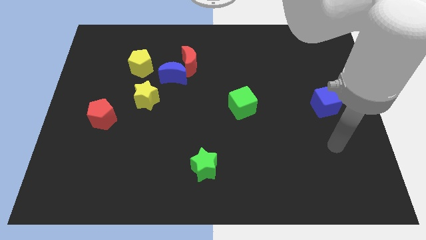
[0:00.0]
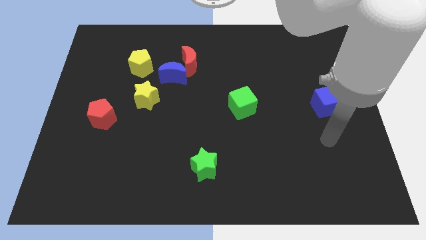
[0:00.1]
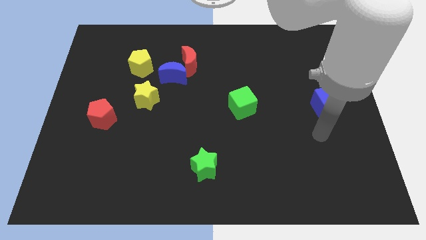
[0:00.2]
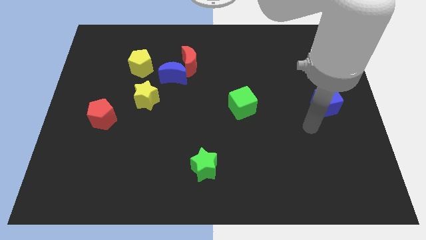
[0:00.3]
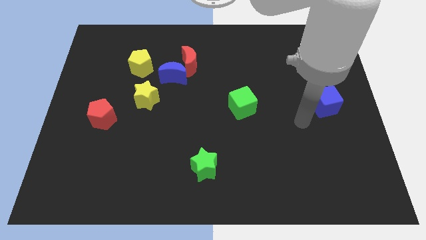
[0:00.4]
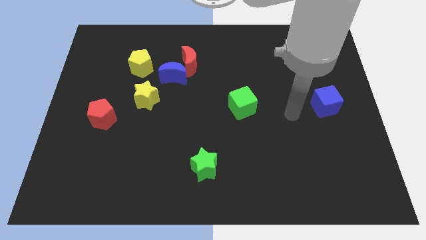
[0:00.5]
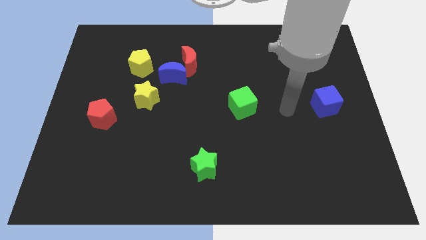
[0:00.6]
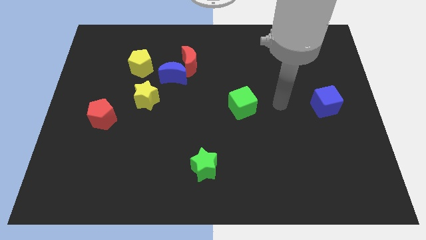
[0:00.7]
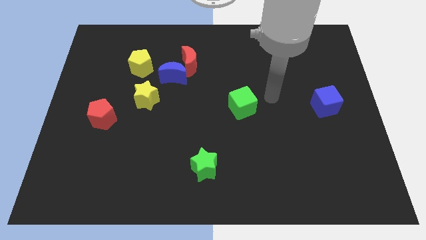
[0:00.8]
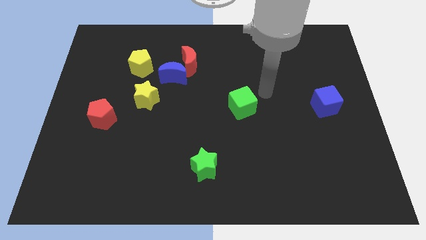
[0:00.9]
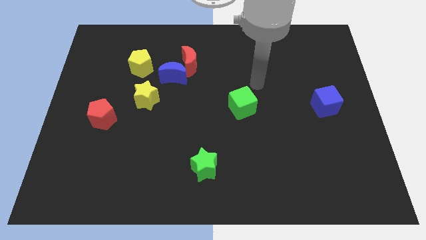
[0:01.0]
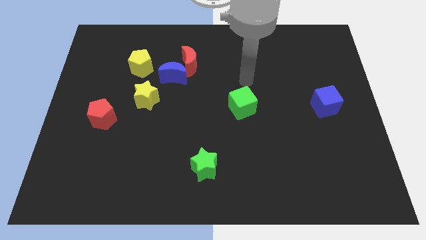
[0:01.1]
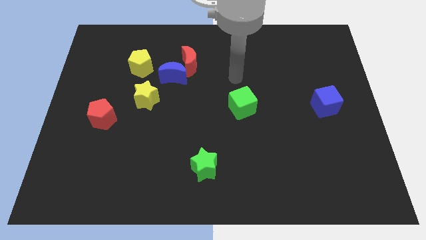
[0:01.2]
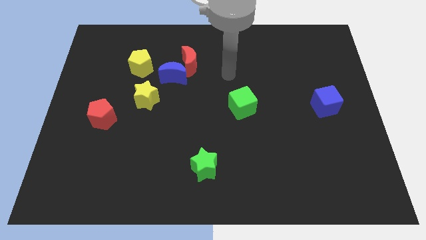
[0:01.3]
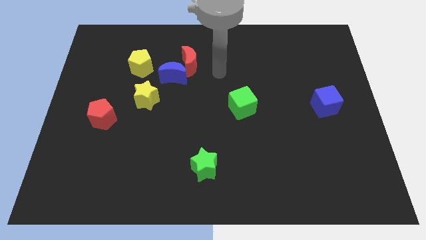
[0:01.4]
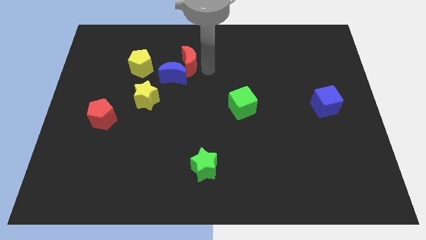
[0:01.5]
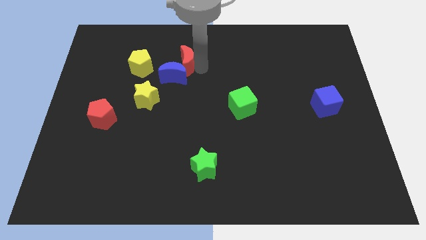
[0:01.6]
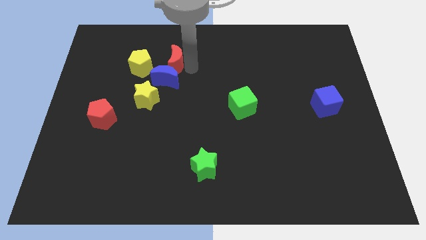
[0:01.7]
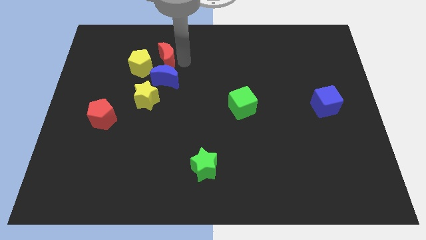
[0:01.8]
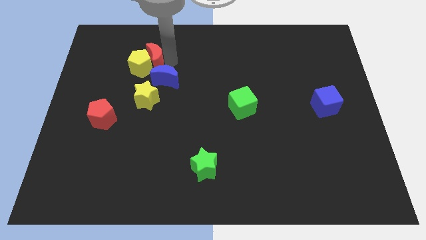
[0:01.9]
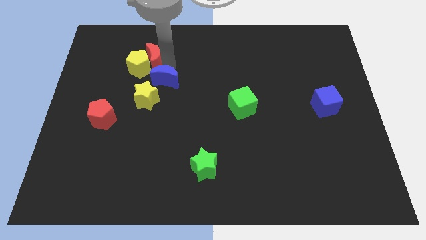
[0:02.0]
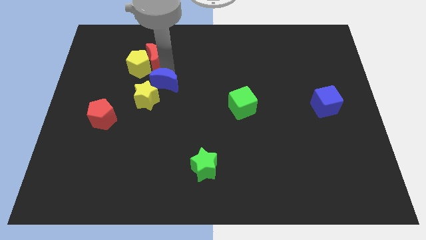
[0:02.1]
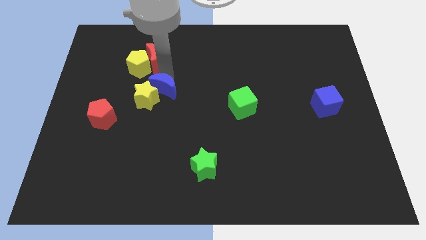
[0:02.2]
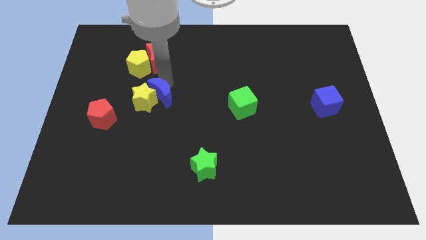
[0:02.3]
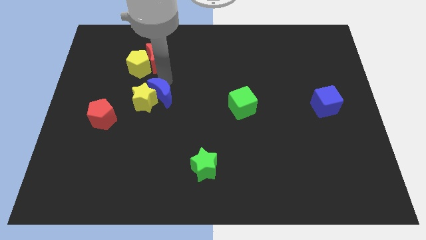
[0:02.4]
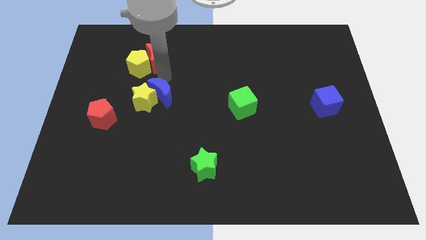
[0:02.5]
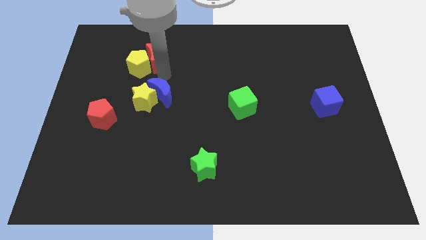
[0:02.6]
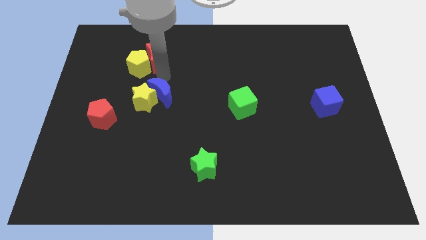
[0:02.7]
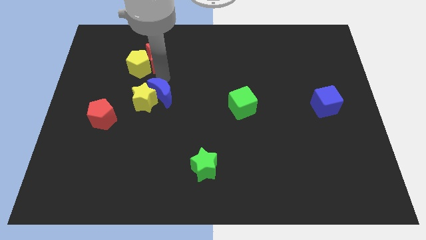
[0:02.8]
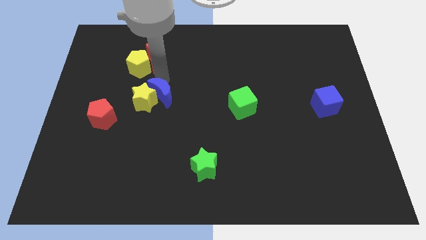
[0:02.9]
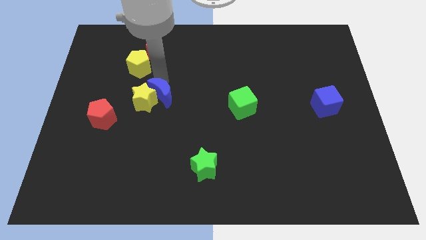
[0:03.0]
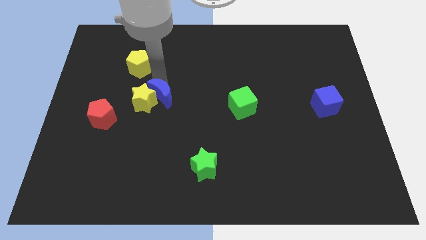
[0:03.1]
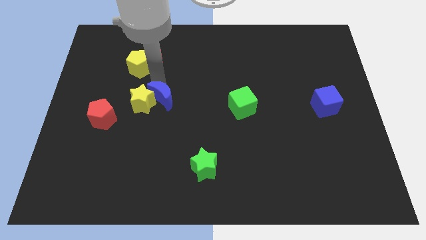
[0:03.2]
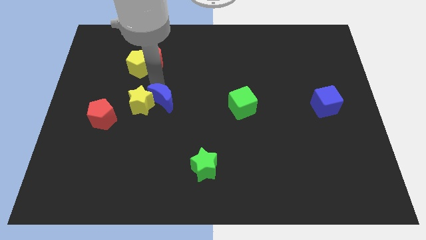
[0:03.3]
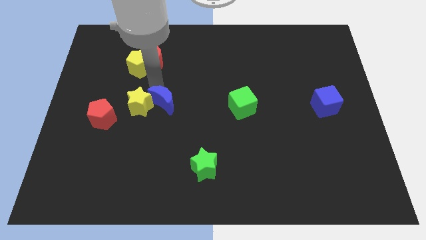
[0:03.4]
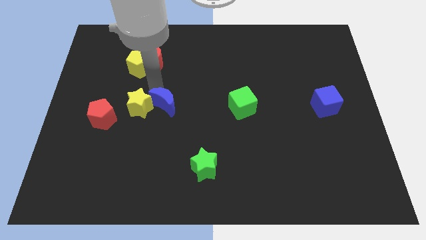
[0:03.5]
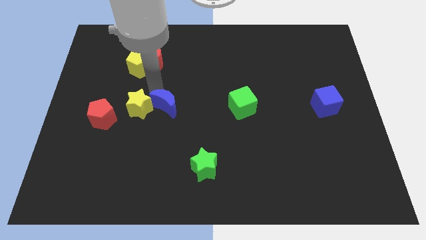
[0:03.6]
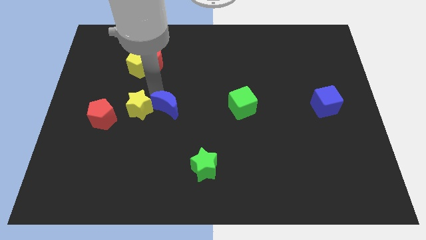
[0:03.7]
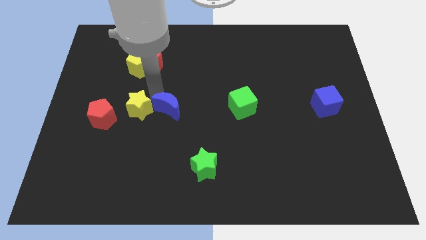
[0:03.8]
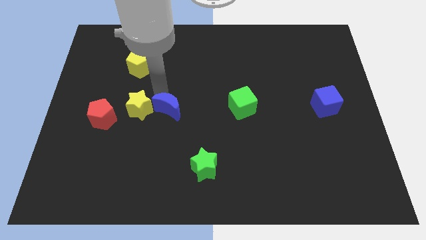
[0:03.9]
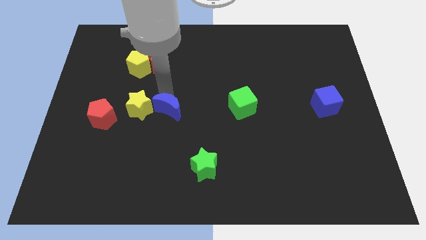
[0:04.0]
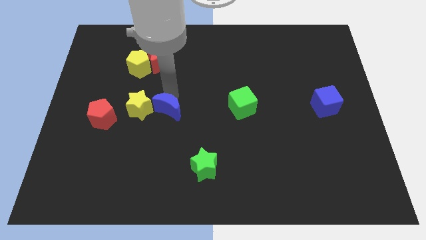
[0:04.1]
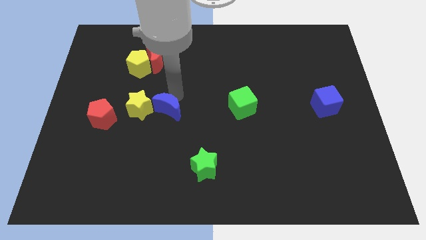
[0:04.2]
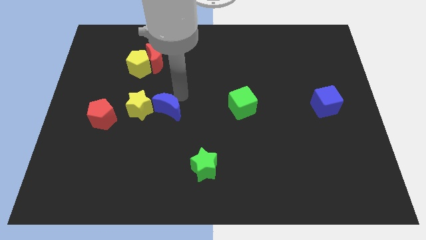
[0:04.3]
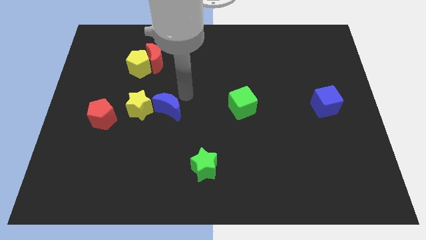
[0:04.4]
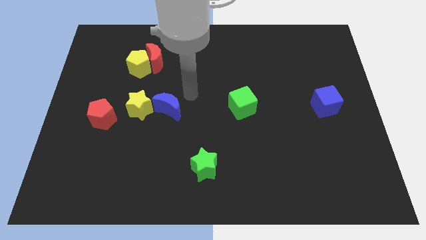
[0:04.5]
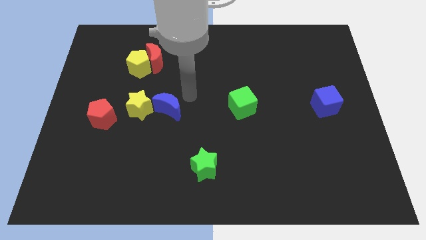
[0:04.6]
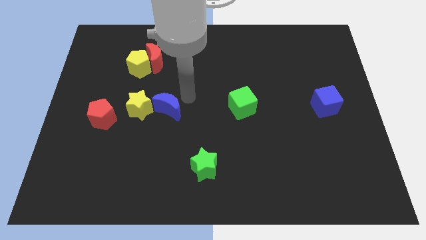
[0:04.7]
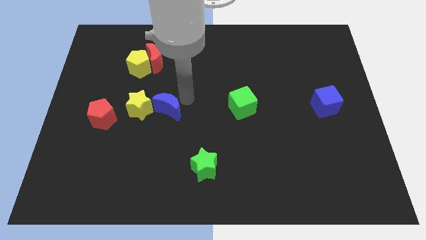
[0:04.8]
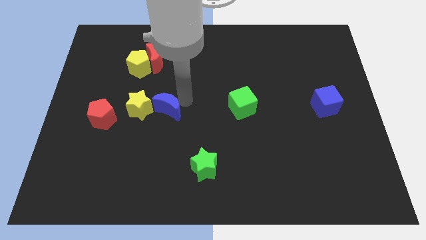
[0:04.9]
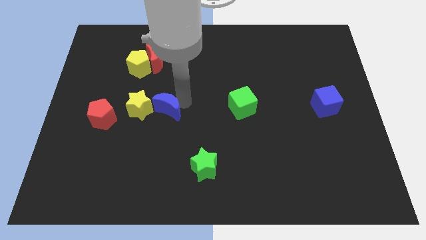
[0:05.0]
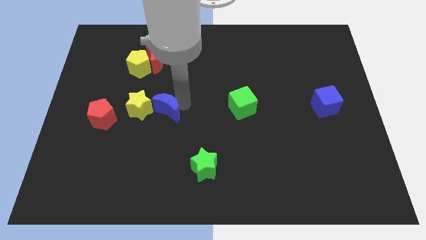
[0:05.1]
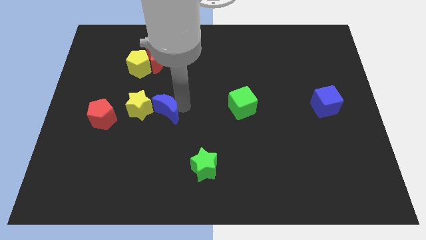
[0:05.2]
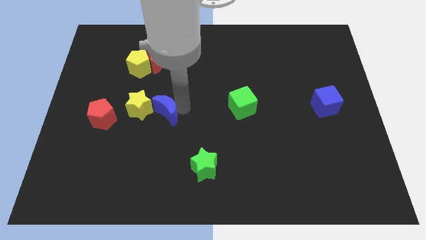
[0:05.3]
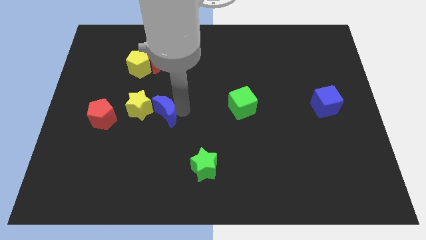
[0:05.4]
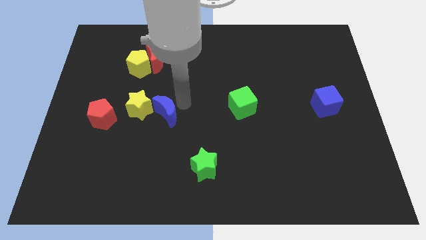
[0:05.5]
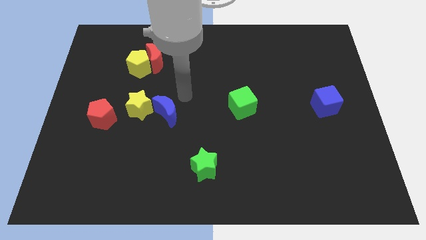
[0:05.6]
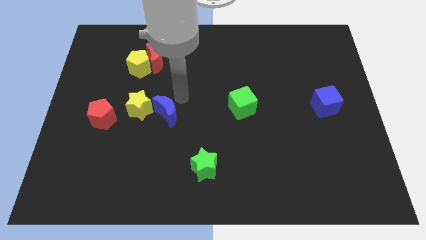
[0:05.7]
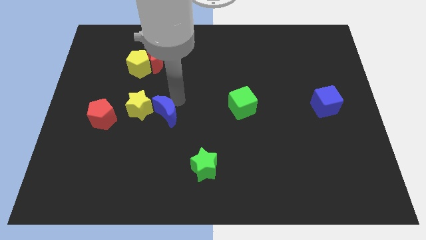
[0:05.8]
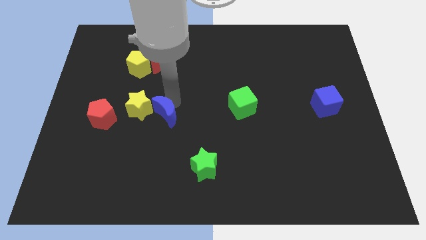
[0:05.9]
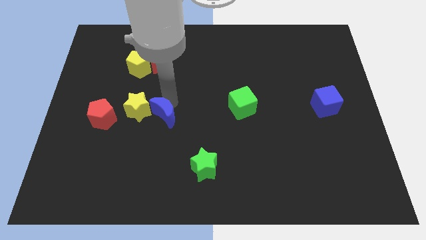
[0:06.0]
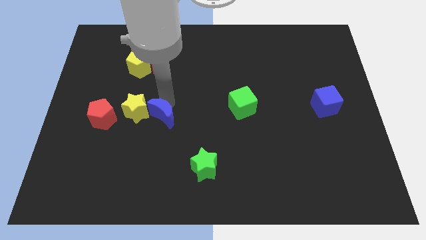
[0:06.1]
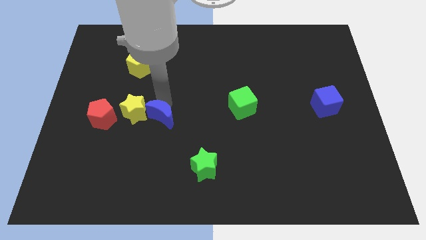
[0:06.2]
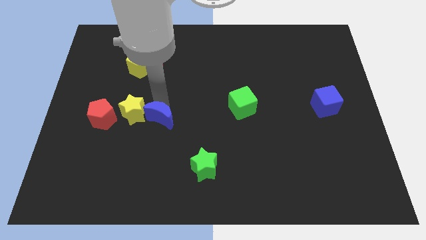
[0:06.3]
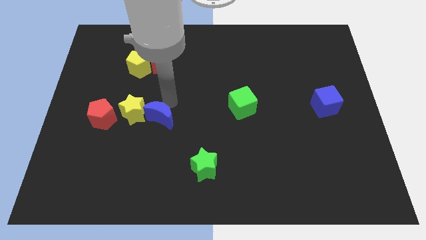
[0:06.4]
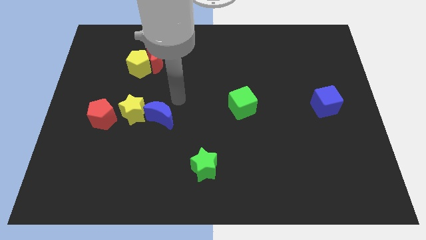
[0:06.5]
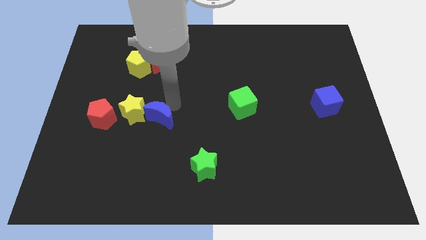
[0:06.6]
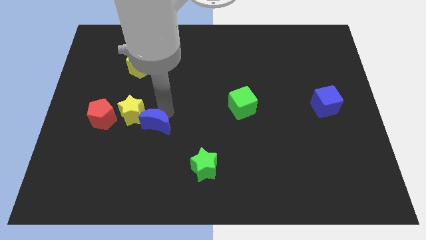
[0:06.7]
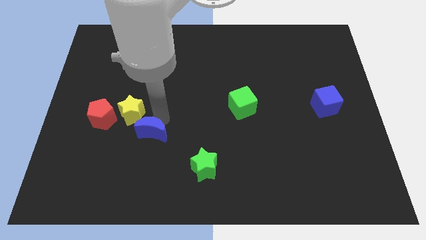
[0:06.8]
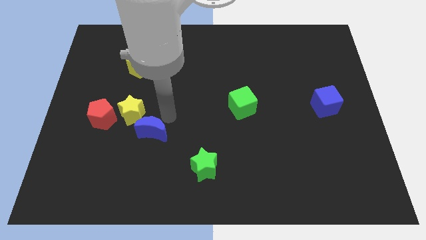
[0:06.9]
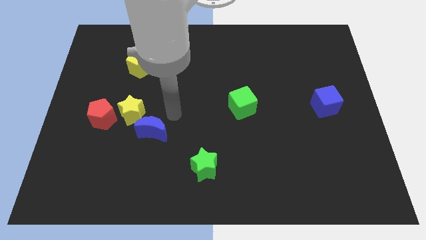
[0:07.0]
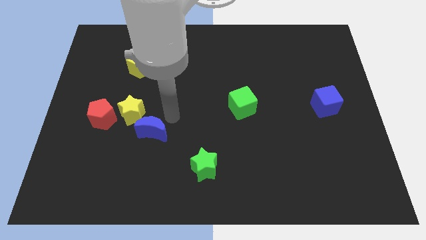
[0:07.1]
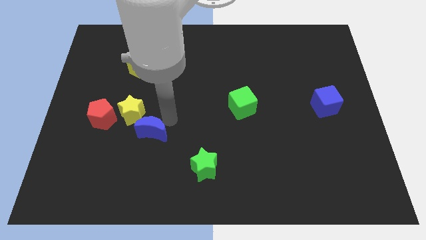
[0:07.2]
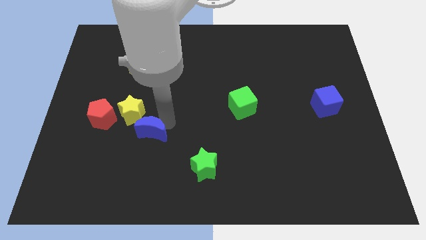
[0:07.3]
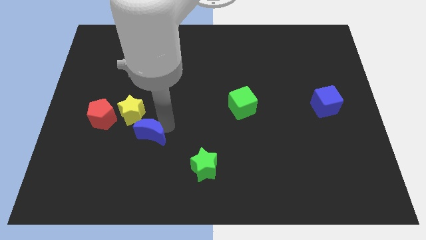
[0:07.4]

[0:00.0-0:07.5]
move the blue moon below the yellow star
